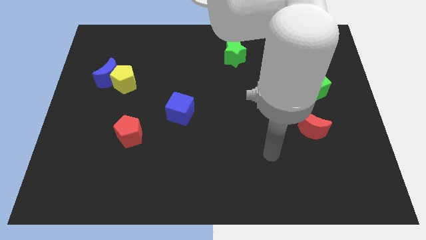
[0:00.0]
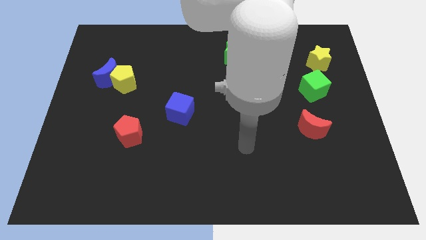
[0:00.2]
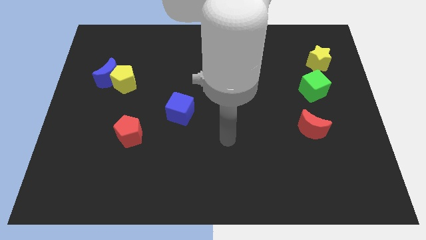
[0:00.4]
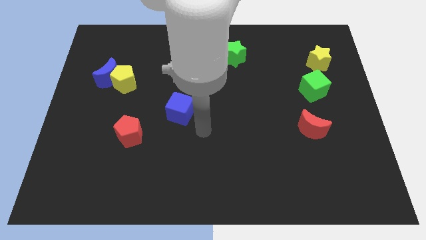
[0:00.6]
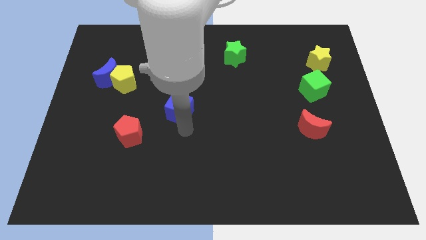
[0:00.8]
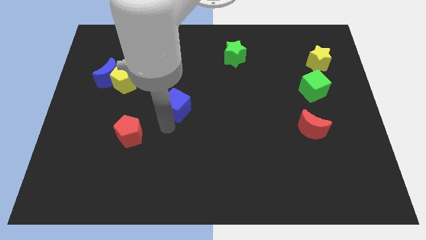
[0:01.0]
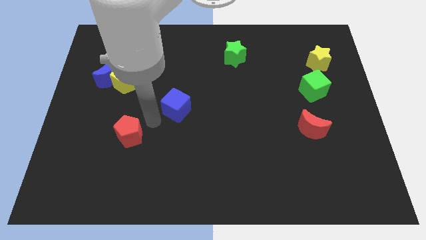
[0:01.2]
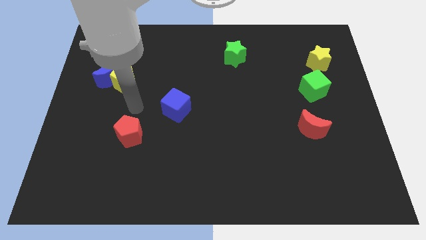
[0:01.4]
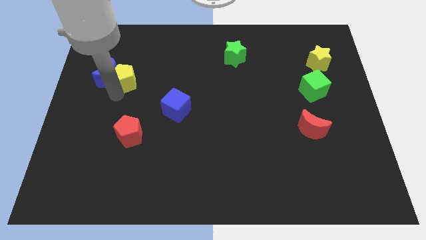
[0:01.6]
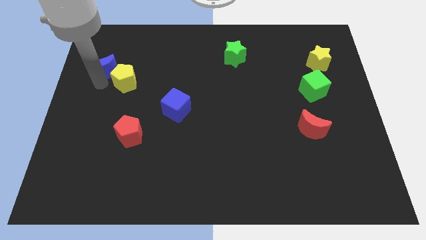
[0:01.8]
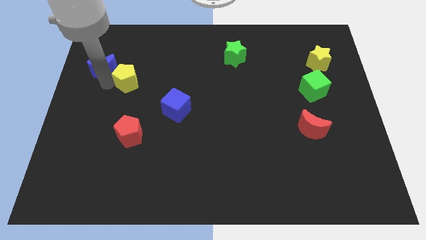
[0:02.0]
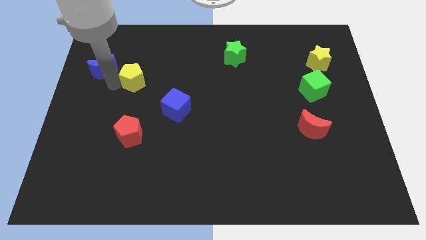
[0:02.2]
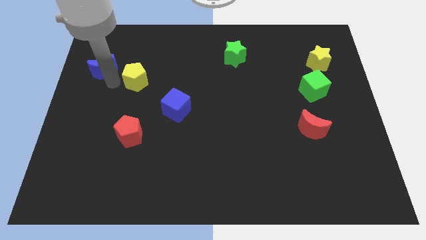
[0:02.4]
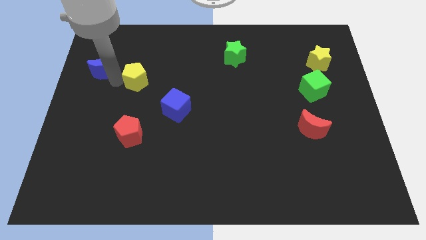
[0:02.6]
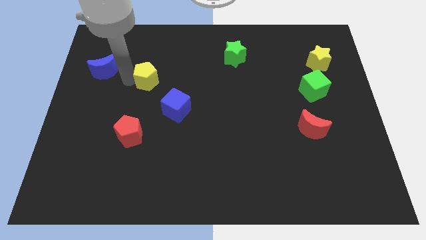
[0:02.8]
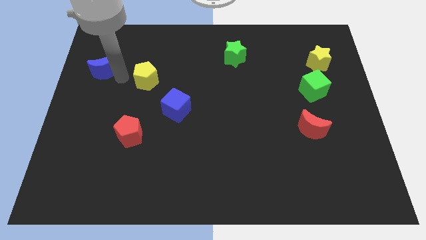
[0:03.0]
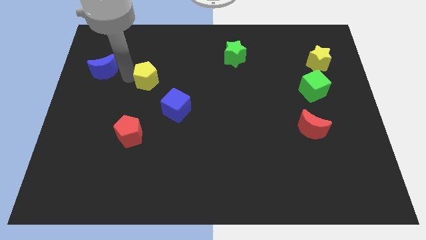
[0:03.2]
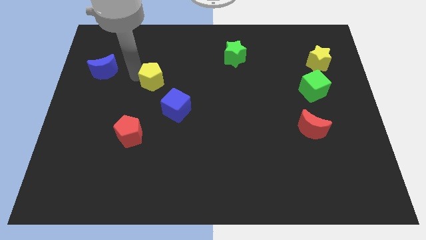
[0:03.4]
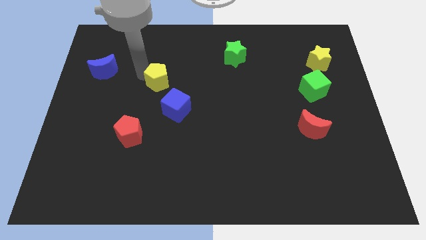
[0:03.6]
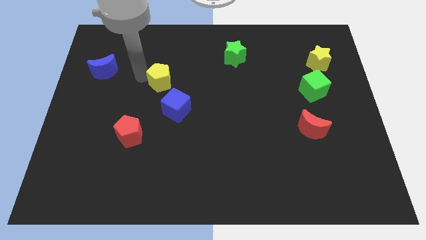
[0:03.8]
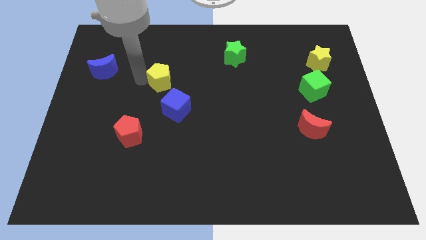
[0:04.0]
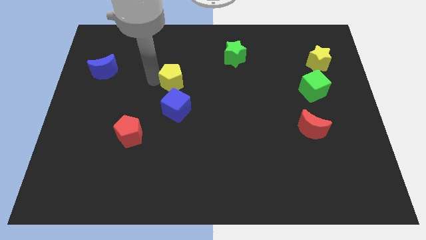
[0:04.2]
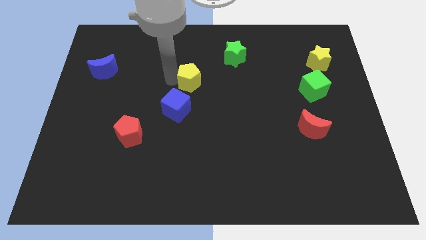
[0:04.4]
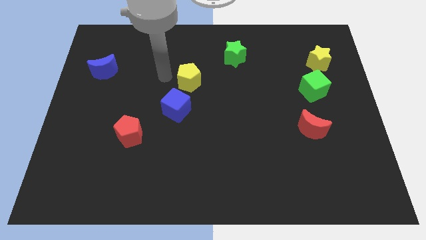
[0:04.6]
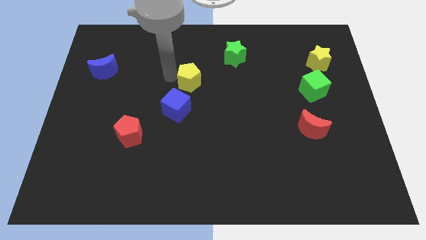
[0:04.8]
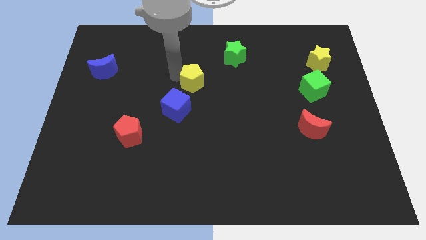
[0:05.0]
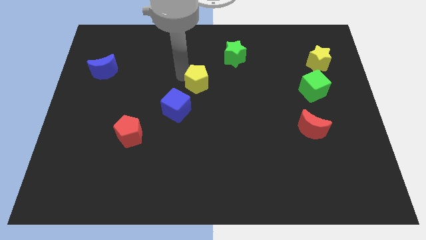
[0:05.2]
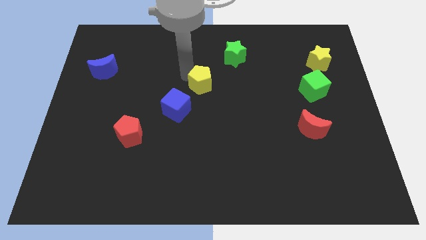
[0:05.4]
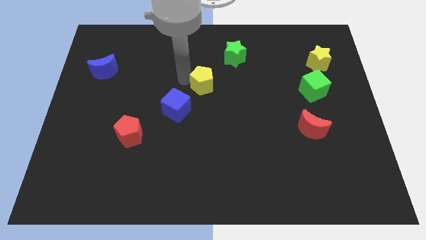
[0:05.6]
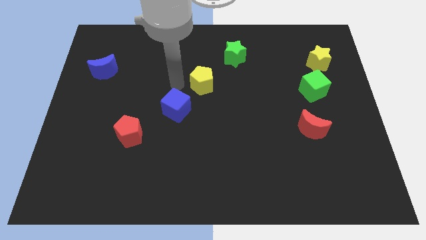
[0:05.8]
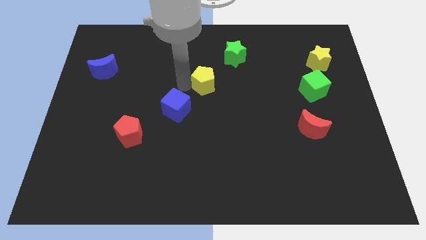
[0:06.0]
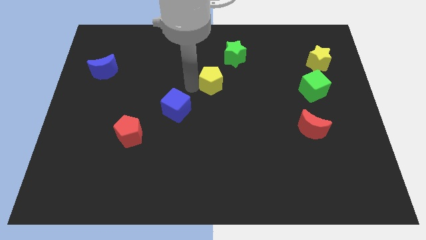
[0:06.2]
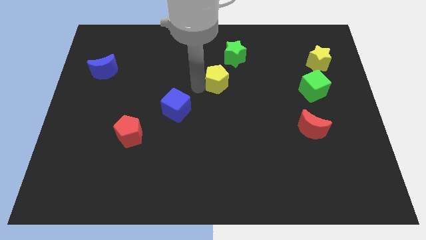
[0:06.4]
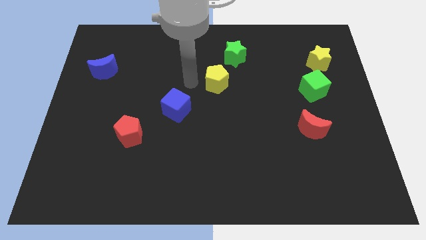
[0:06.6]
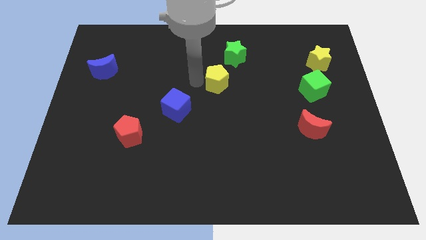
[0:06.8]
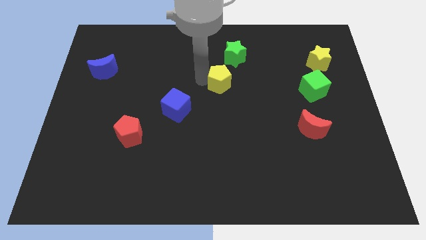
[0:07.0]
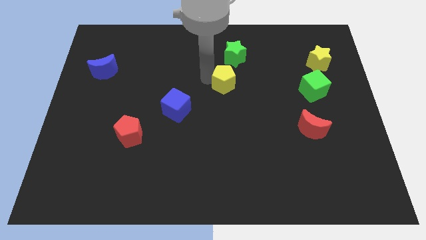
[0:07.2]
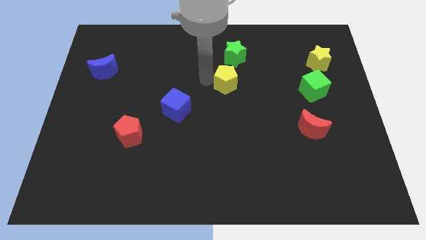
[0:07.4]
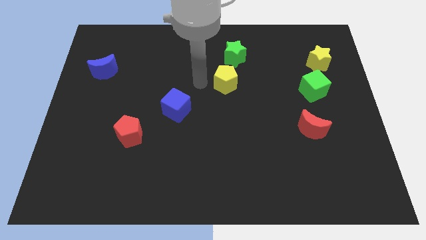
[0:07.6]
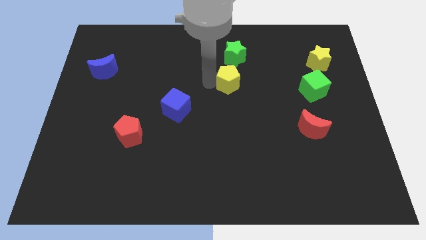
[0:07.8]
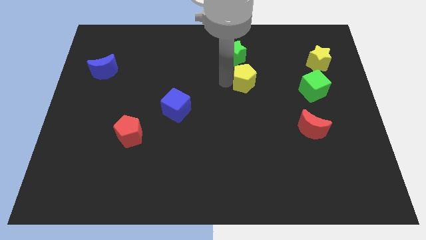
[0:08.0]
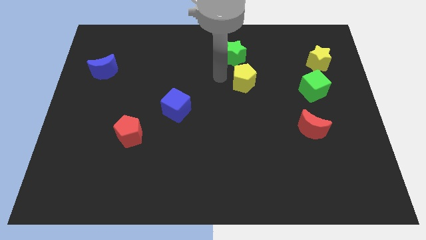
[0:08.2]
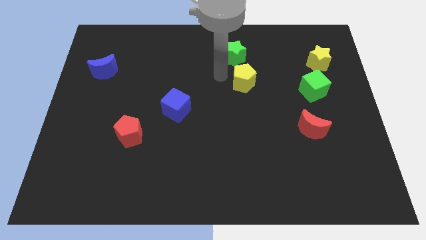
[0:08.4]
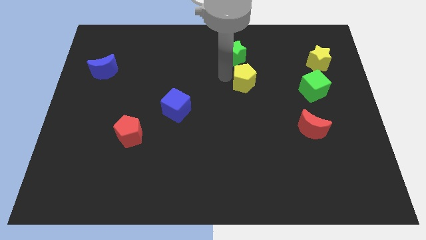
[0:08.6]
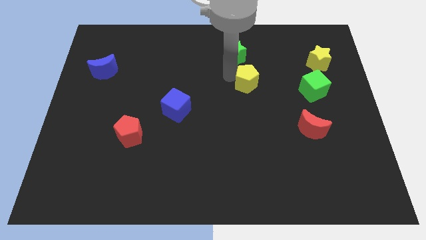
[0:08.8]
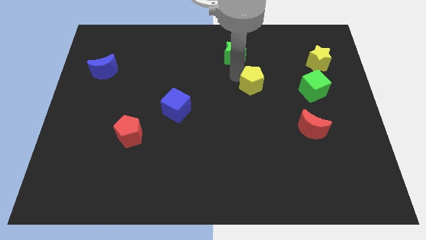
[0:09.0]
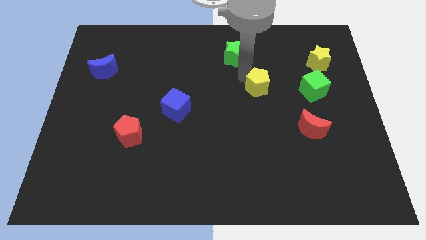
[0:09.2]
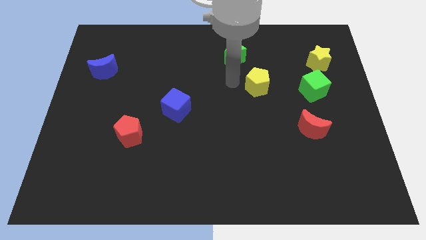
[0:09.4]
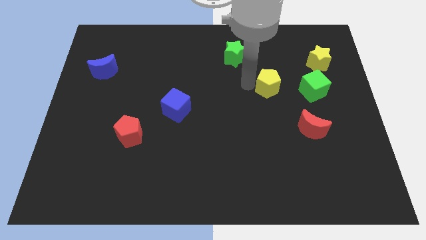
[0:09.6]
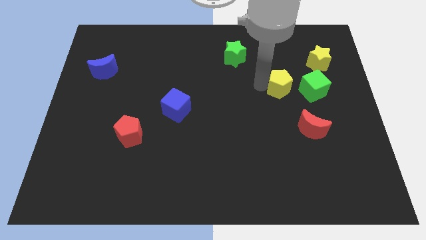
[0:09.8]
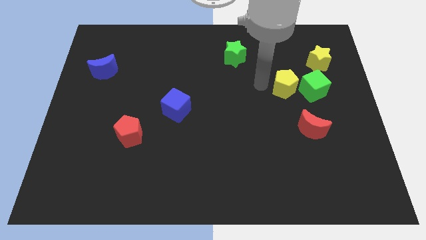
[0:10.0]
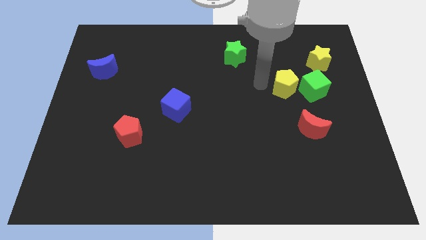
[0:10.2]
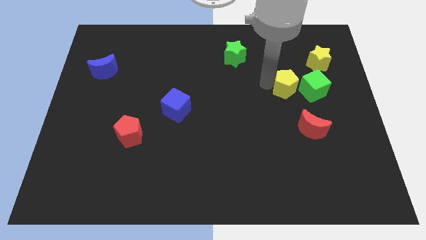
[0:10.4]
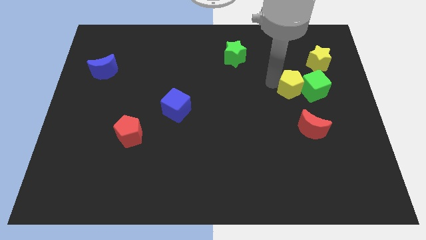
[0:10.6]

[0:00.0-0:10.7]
push the yellow pentagon towards the green cube

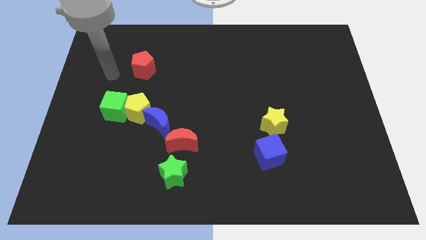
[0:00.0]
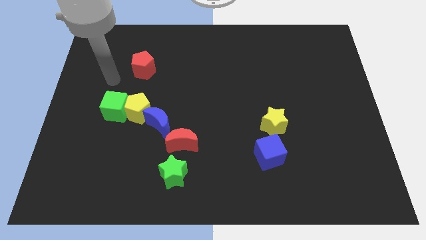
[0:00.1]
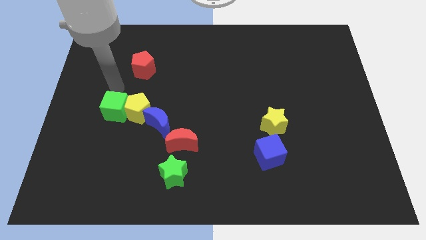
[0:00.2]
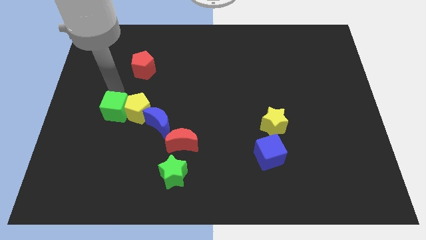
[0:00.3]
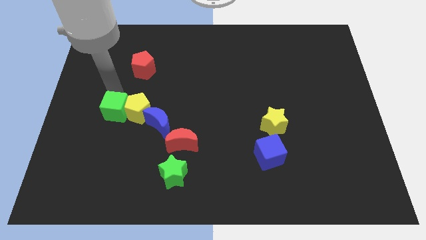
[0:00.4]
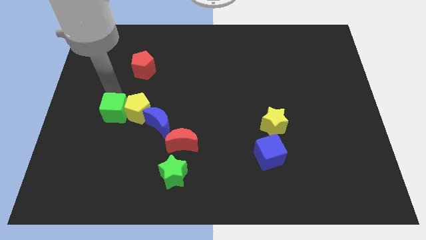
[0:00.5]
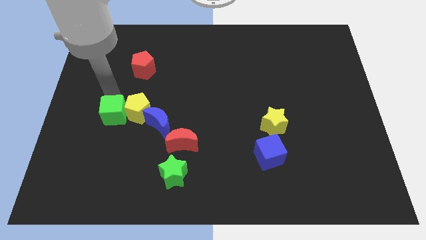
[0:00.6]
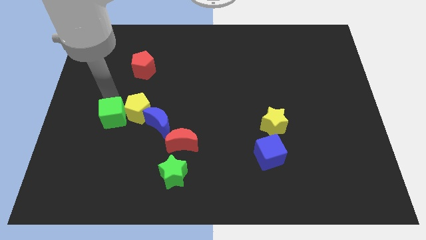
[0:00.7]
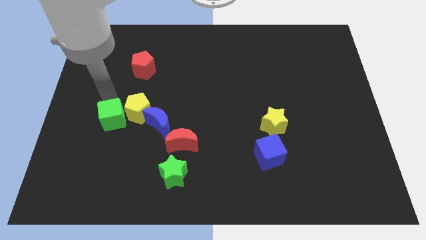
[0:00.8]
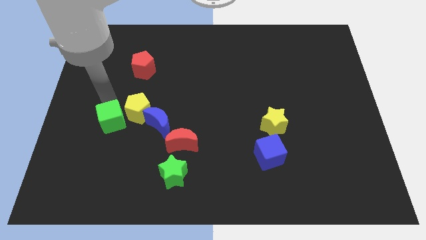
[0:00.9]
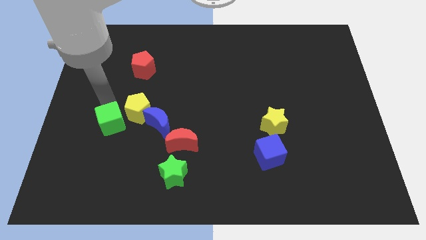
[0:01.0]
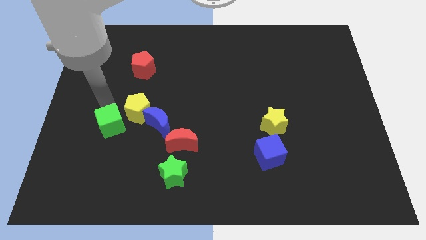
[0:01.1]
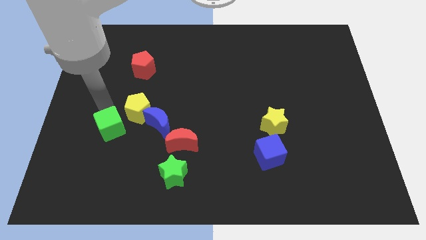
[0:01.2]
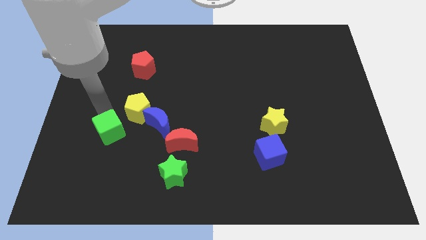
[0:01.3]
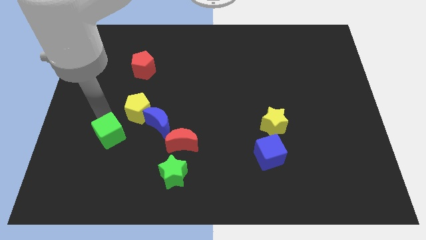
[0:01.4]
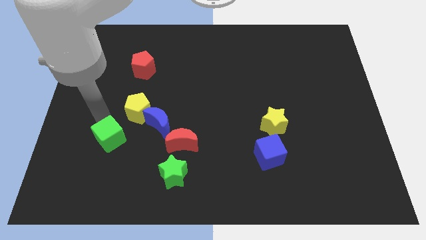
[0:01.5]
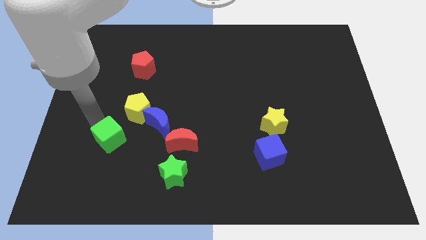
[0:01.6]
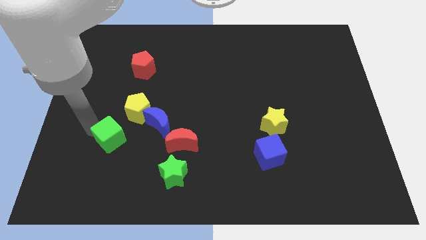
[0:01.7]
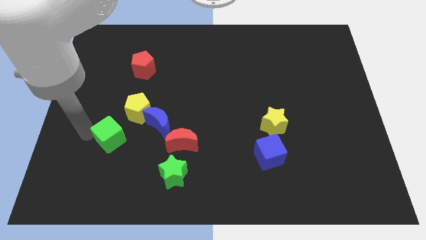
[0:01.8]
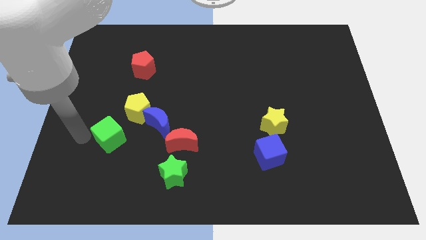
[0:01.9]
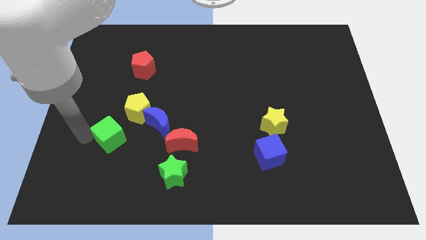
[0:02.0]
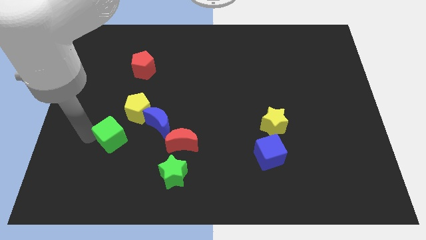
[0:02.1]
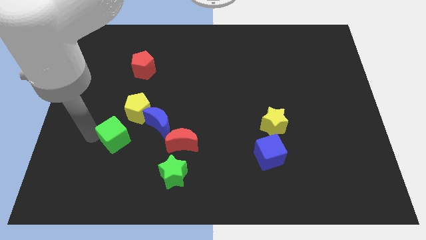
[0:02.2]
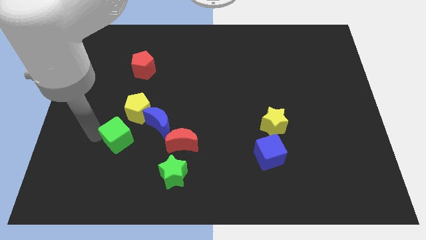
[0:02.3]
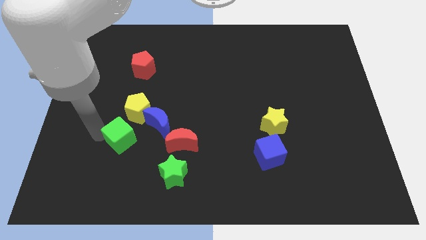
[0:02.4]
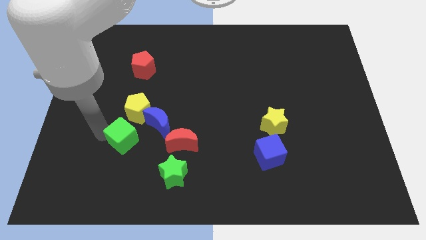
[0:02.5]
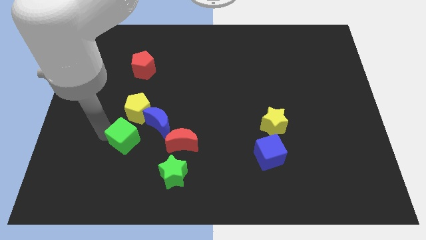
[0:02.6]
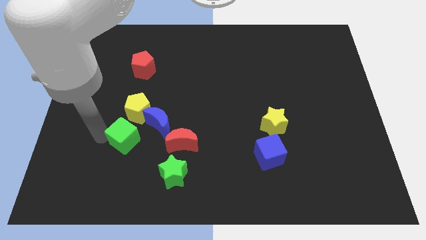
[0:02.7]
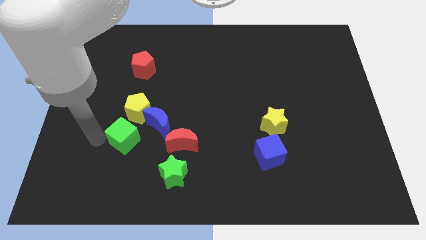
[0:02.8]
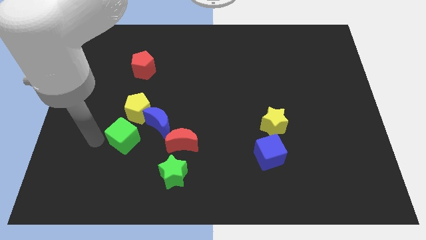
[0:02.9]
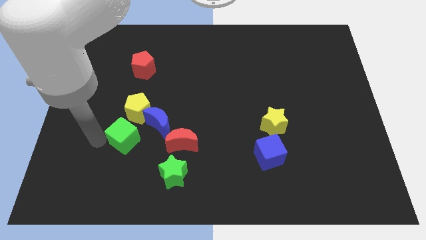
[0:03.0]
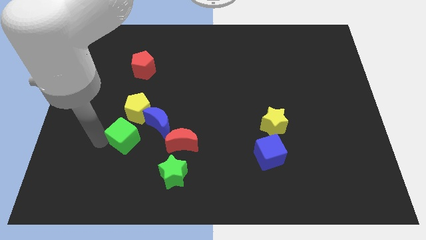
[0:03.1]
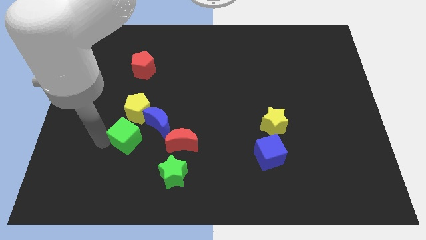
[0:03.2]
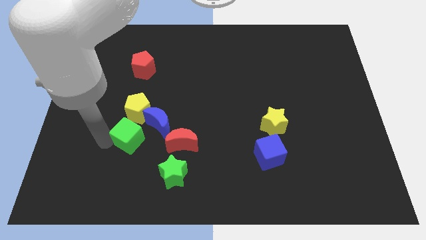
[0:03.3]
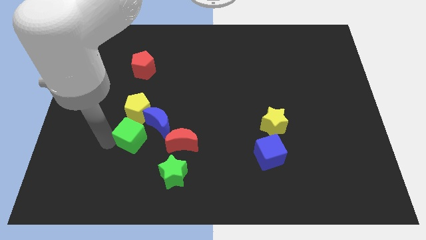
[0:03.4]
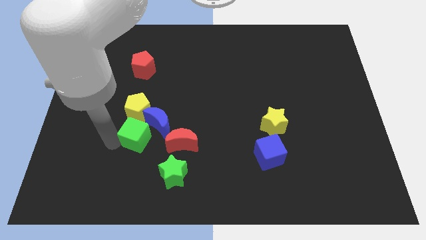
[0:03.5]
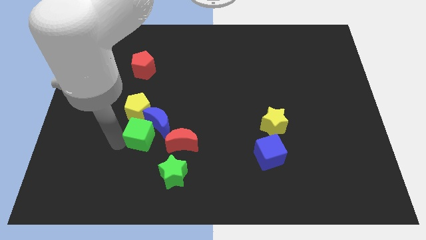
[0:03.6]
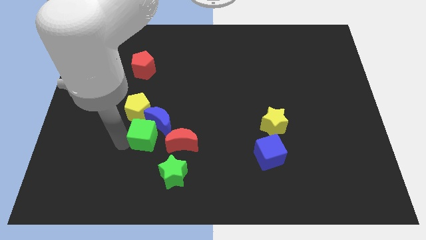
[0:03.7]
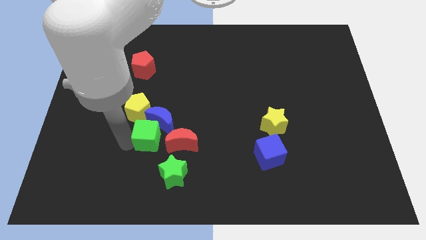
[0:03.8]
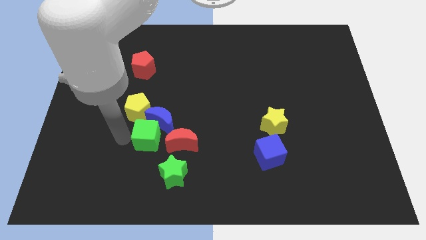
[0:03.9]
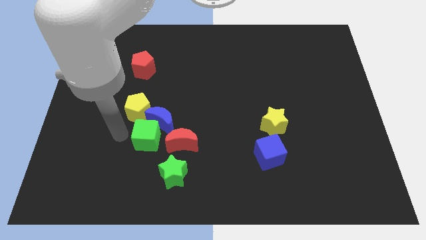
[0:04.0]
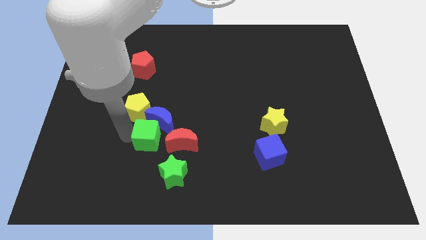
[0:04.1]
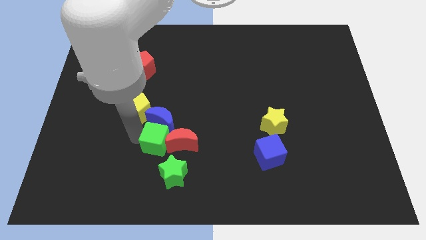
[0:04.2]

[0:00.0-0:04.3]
push the green cube close to the red moon
